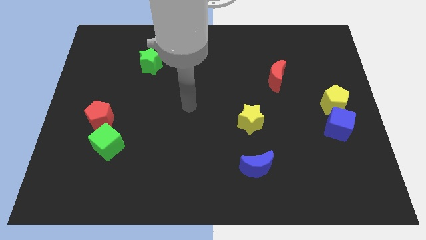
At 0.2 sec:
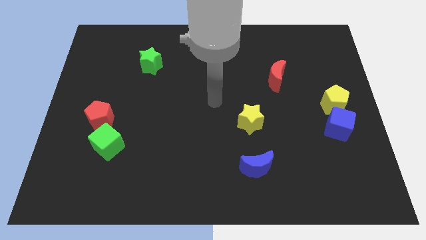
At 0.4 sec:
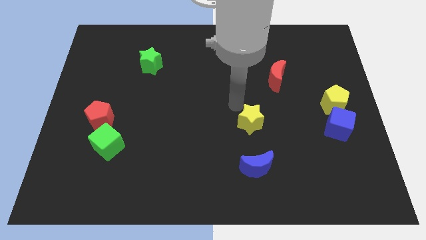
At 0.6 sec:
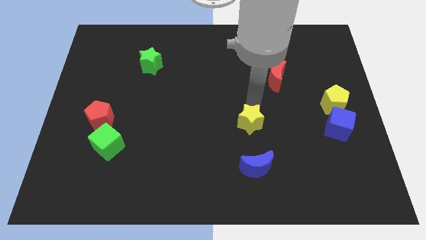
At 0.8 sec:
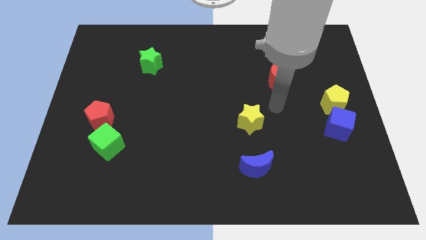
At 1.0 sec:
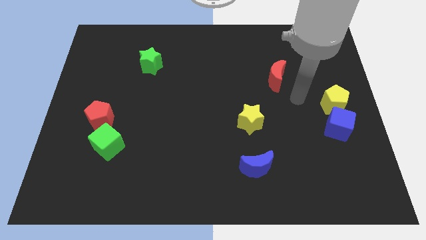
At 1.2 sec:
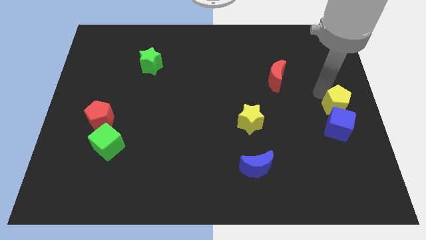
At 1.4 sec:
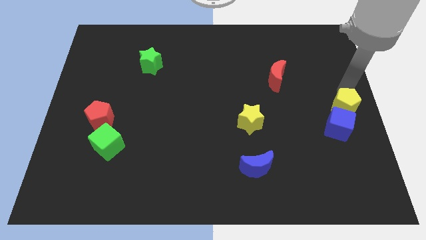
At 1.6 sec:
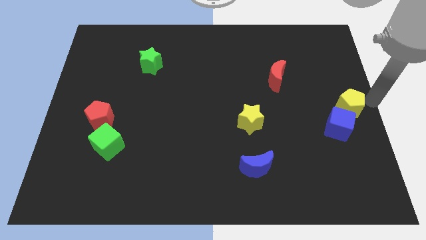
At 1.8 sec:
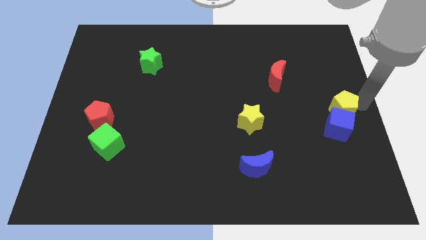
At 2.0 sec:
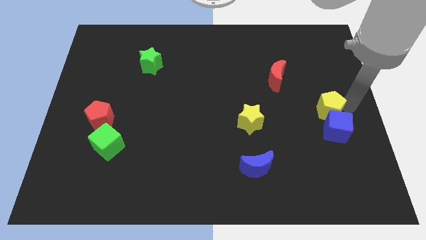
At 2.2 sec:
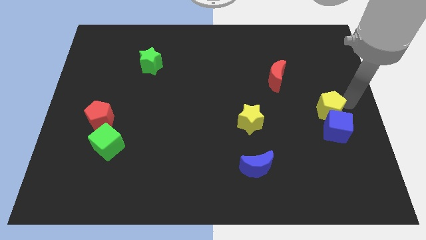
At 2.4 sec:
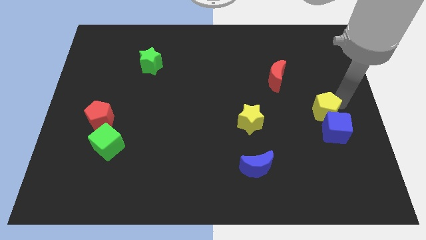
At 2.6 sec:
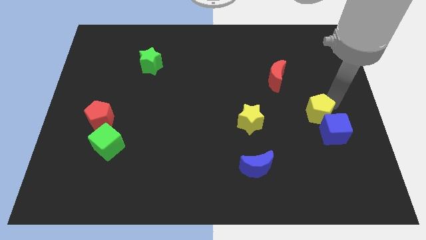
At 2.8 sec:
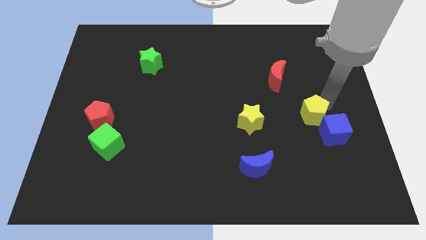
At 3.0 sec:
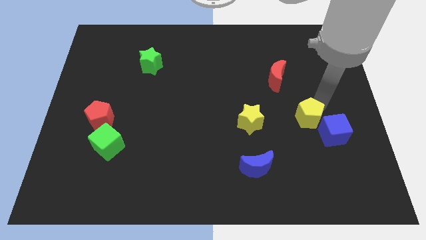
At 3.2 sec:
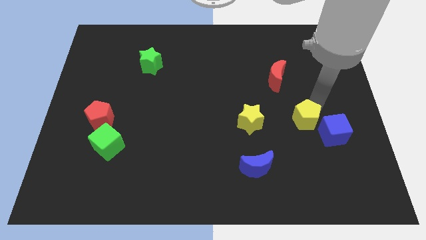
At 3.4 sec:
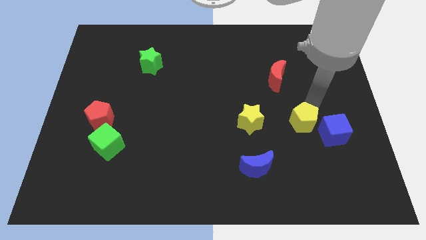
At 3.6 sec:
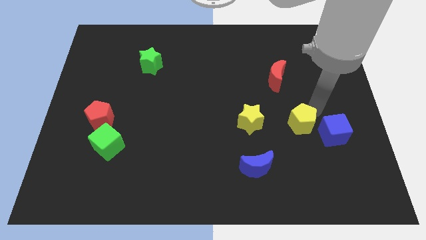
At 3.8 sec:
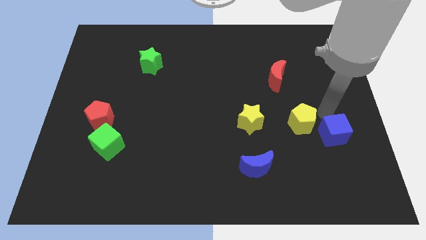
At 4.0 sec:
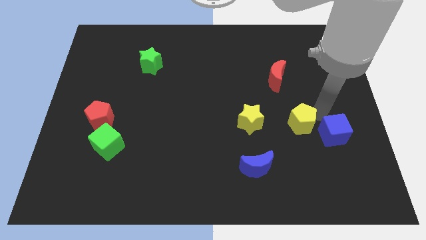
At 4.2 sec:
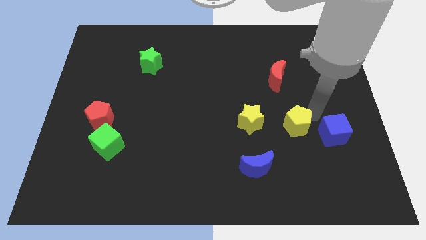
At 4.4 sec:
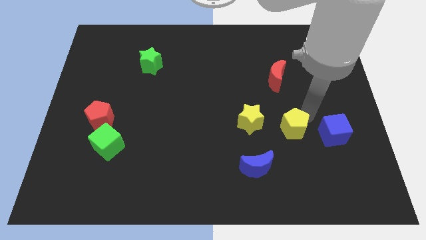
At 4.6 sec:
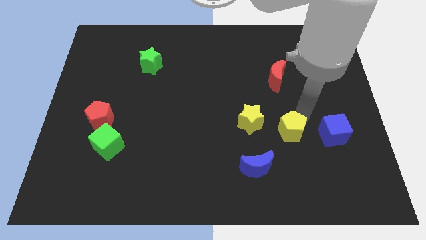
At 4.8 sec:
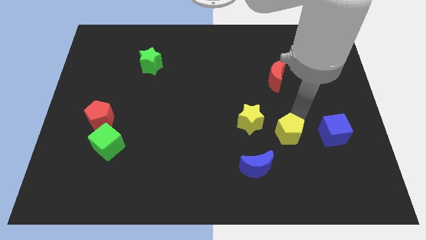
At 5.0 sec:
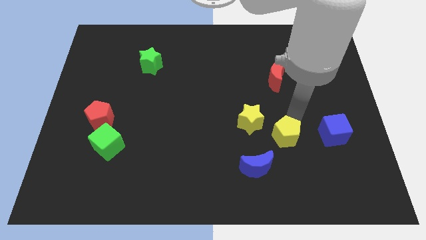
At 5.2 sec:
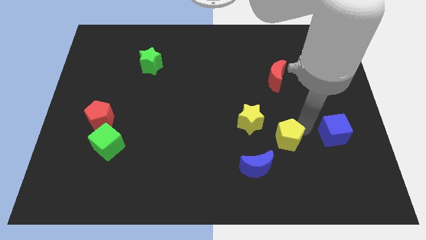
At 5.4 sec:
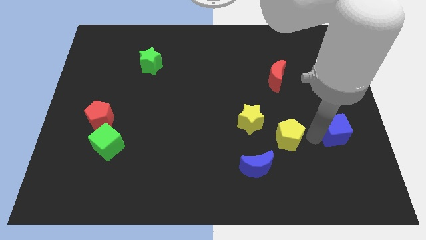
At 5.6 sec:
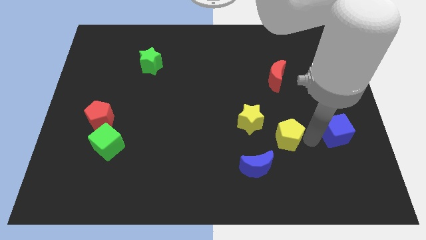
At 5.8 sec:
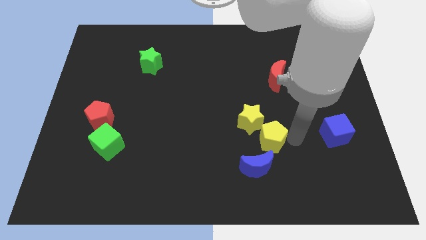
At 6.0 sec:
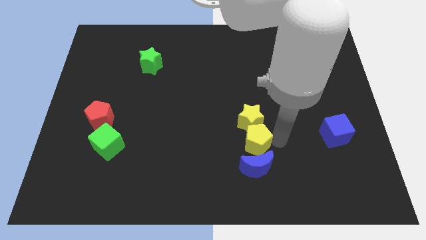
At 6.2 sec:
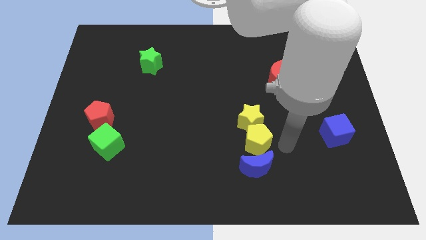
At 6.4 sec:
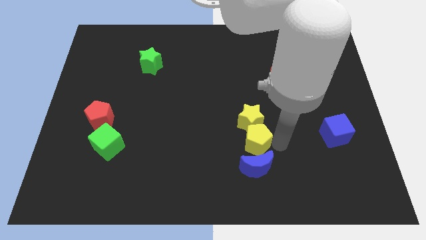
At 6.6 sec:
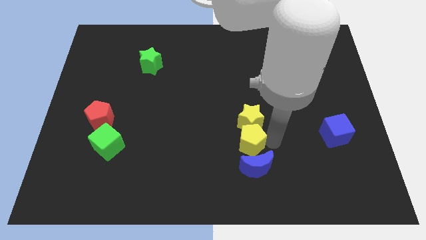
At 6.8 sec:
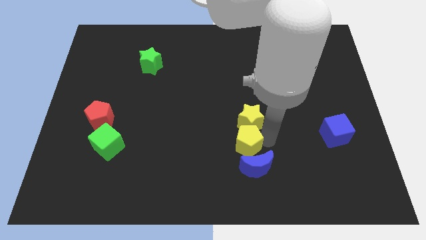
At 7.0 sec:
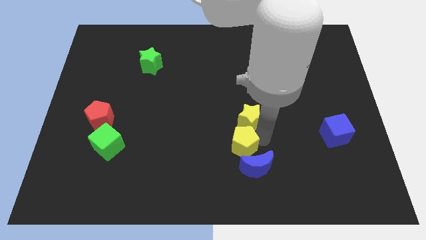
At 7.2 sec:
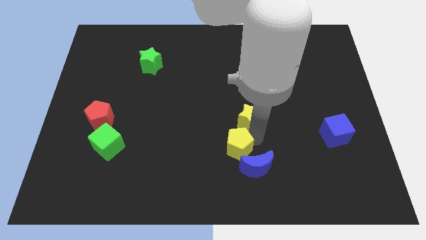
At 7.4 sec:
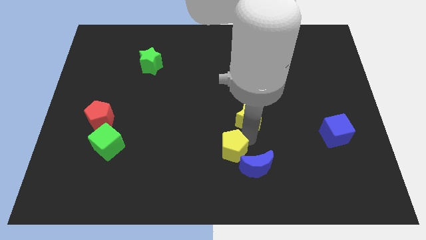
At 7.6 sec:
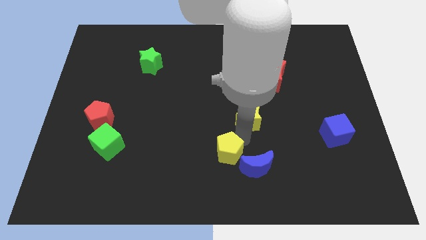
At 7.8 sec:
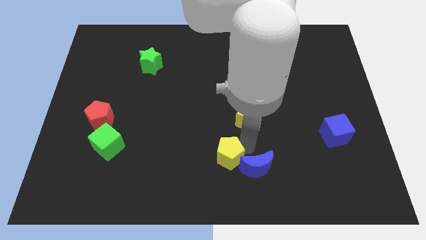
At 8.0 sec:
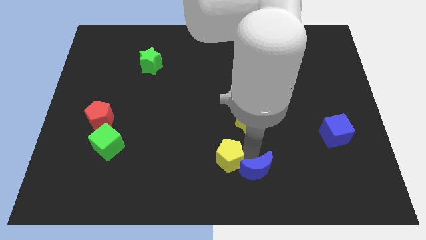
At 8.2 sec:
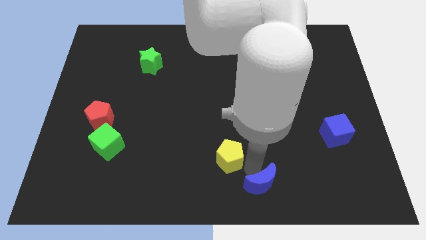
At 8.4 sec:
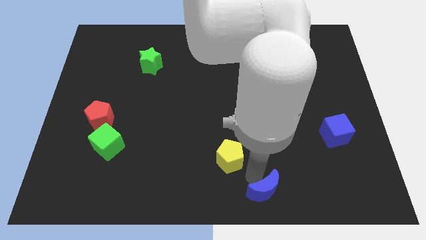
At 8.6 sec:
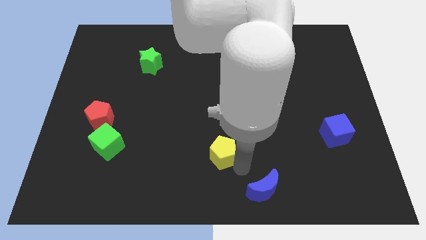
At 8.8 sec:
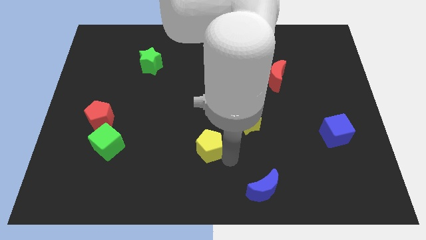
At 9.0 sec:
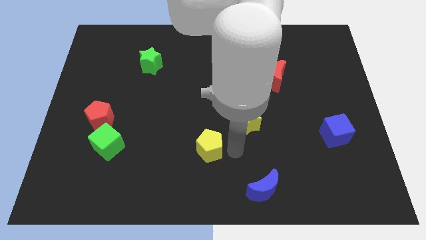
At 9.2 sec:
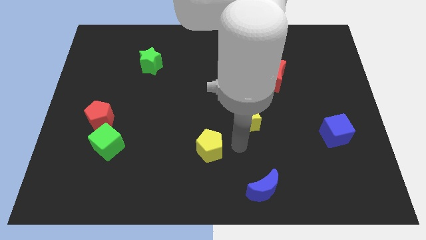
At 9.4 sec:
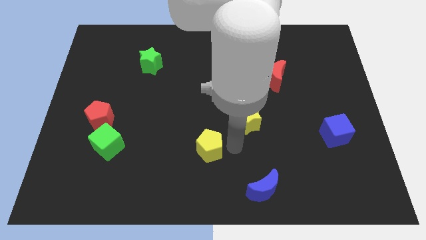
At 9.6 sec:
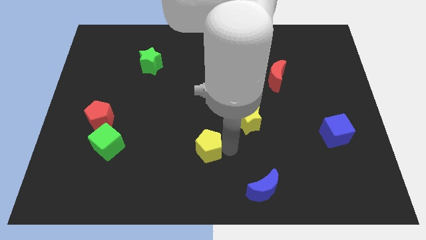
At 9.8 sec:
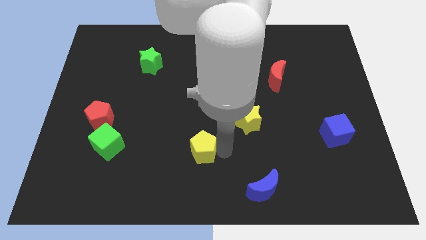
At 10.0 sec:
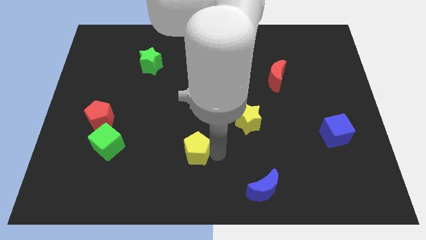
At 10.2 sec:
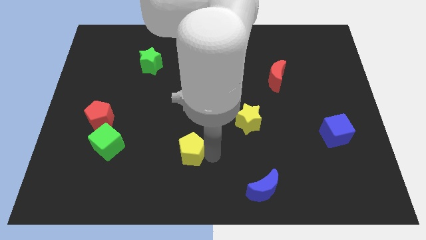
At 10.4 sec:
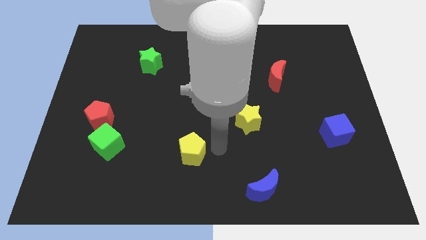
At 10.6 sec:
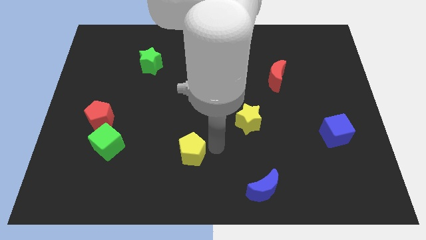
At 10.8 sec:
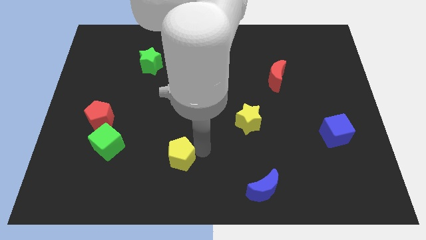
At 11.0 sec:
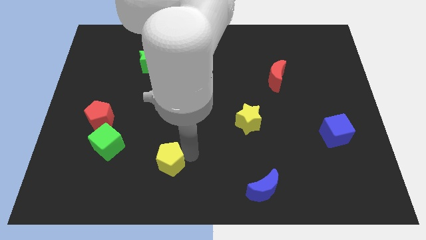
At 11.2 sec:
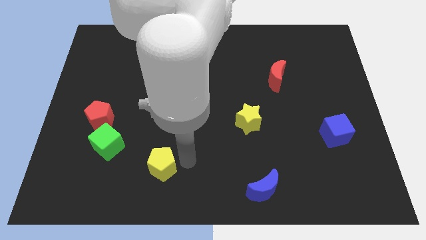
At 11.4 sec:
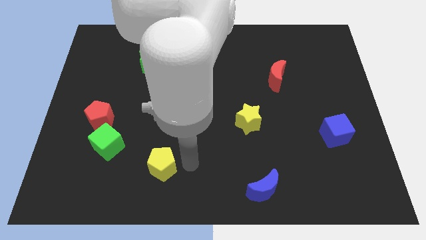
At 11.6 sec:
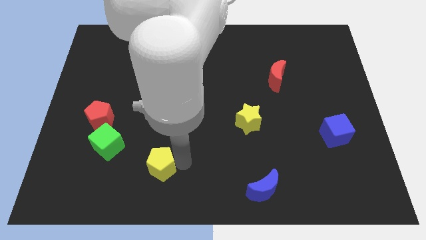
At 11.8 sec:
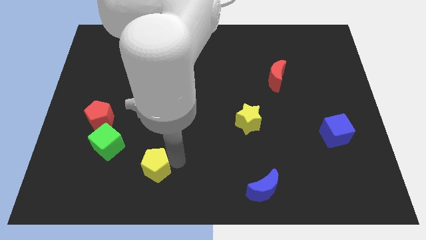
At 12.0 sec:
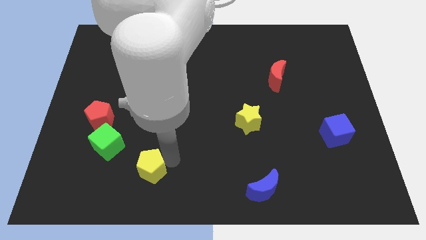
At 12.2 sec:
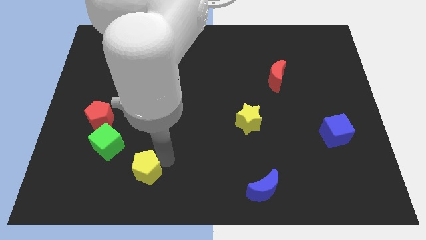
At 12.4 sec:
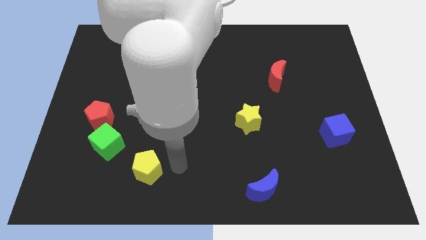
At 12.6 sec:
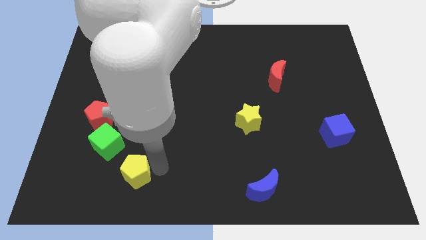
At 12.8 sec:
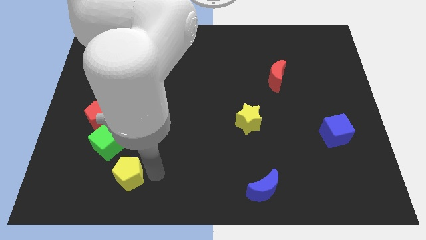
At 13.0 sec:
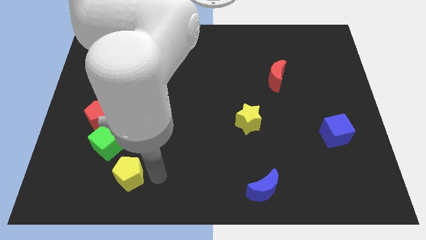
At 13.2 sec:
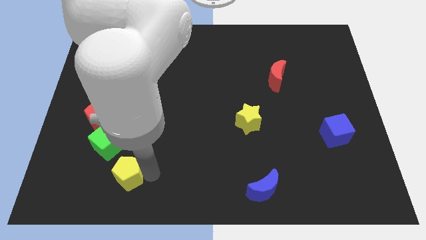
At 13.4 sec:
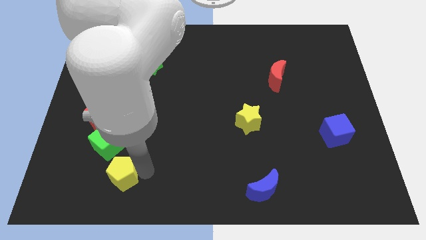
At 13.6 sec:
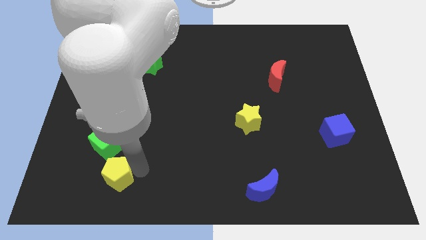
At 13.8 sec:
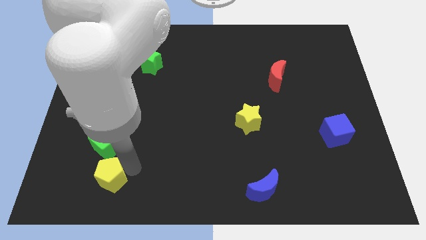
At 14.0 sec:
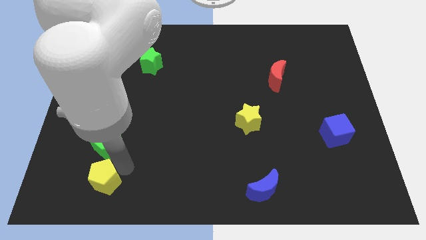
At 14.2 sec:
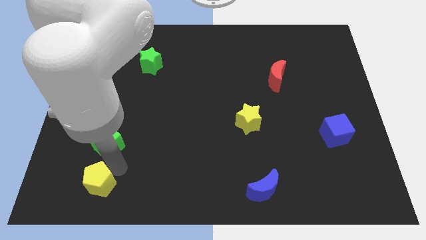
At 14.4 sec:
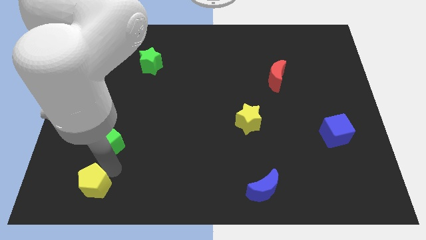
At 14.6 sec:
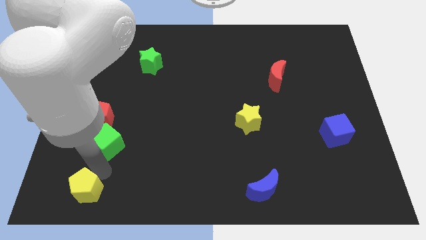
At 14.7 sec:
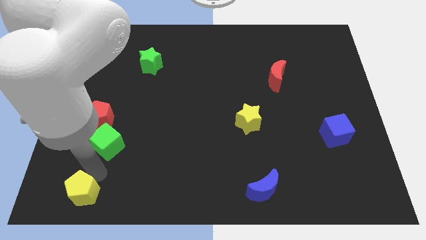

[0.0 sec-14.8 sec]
slide the yellow pentagon to the lower left corner
